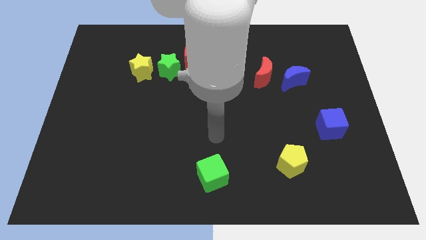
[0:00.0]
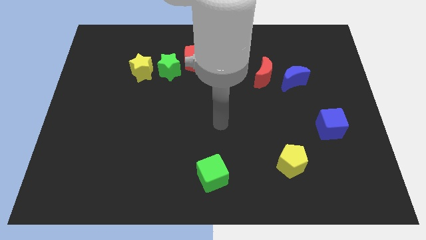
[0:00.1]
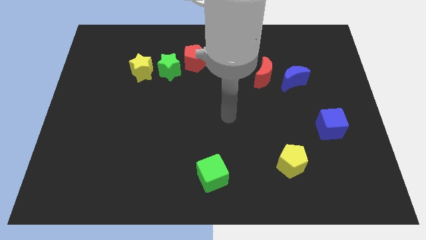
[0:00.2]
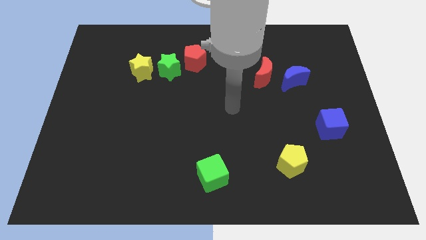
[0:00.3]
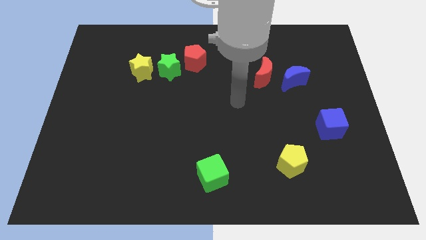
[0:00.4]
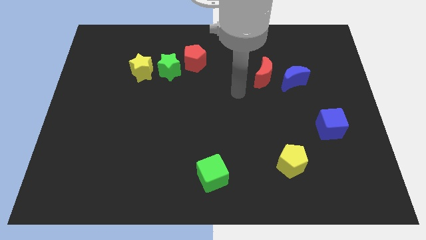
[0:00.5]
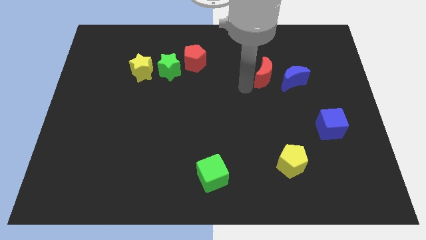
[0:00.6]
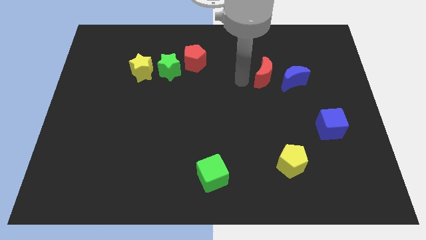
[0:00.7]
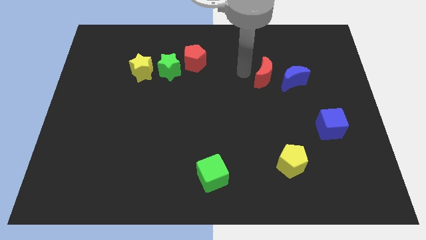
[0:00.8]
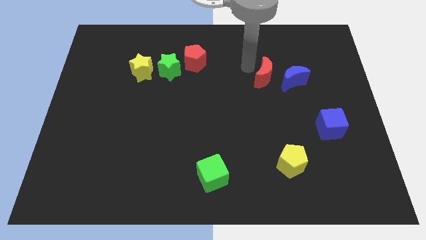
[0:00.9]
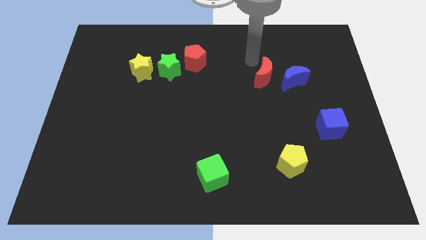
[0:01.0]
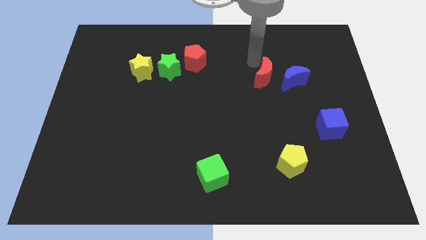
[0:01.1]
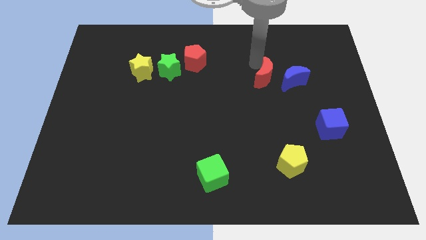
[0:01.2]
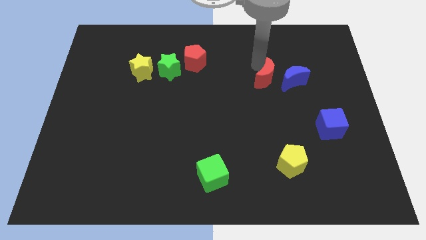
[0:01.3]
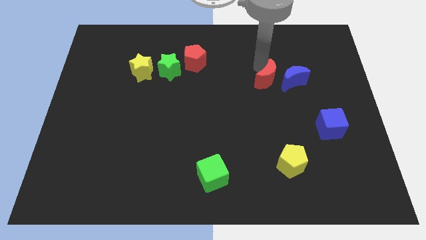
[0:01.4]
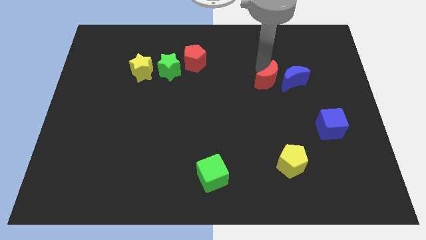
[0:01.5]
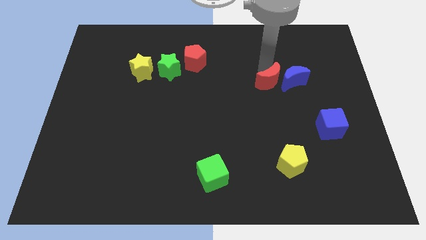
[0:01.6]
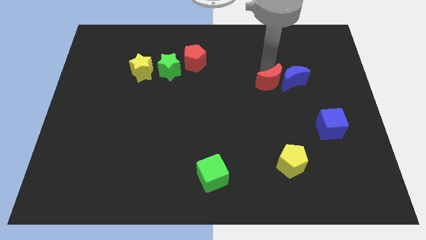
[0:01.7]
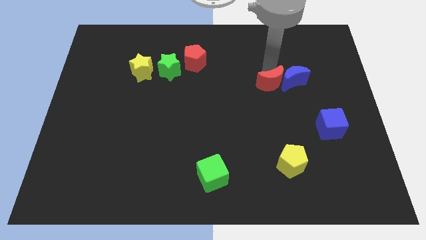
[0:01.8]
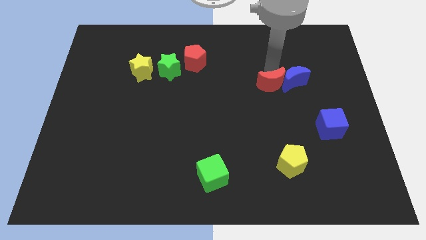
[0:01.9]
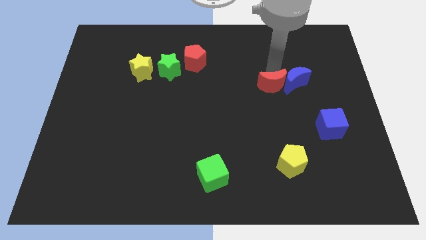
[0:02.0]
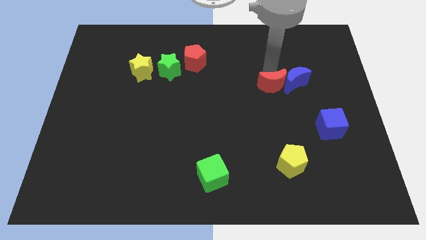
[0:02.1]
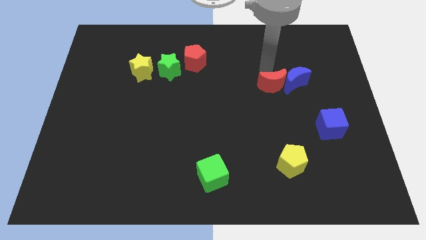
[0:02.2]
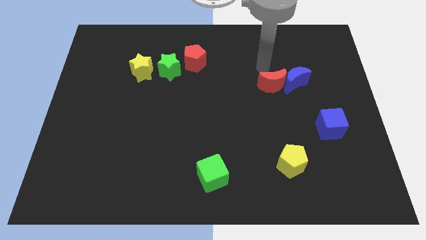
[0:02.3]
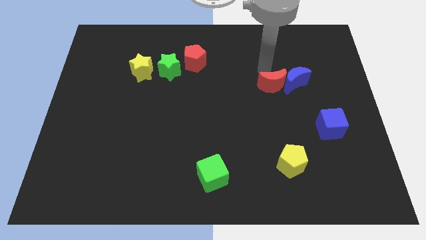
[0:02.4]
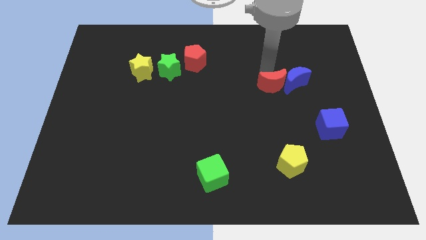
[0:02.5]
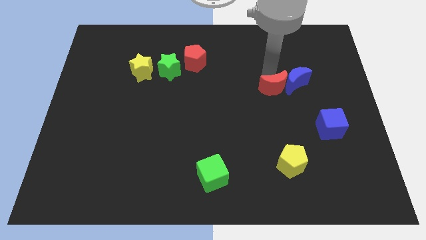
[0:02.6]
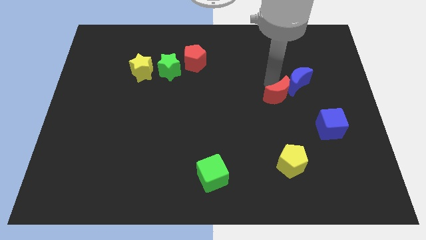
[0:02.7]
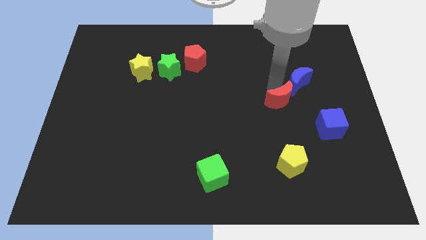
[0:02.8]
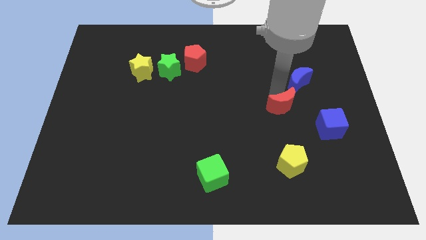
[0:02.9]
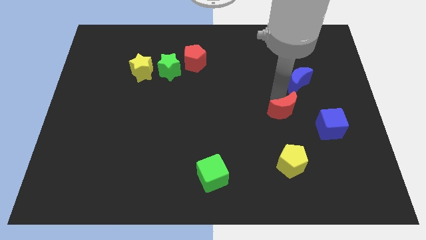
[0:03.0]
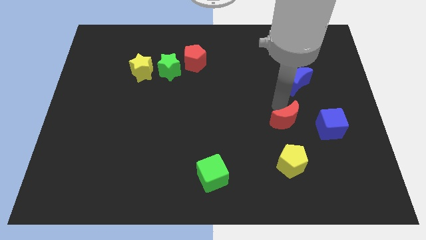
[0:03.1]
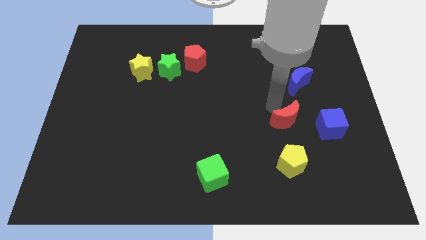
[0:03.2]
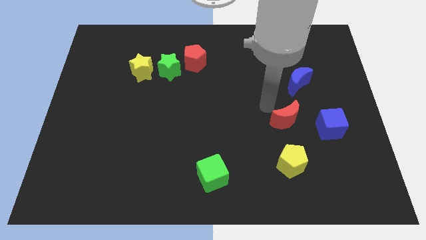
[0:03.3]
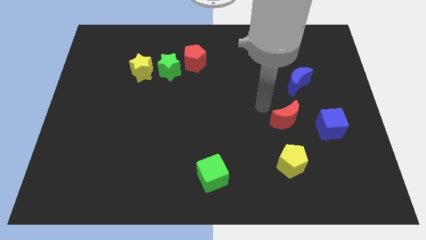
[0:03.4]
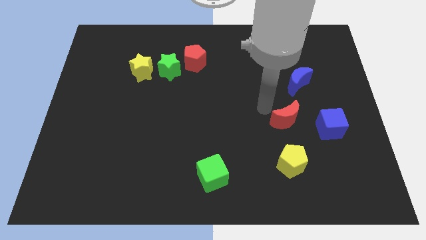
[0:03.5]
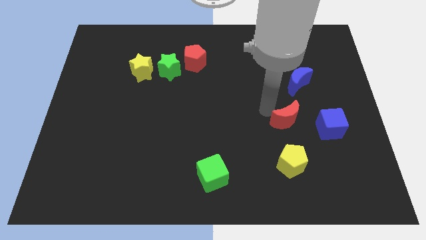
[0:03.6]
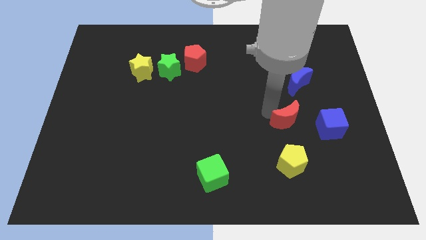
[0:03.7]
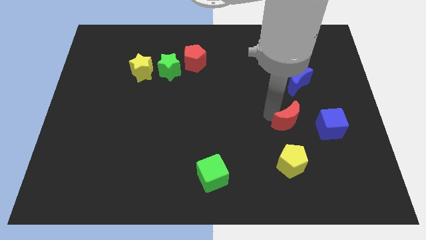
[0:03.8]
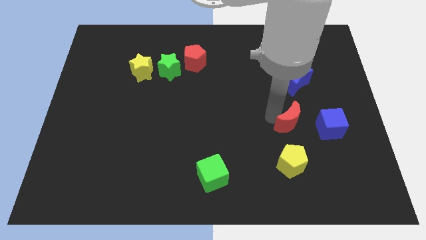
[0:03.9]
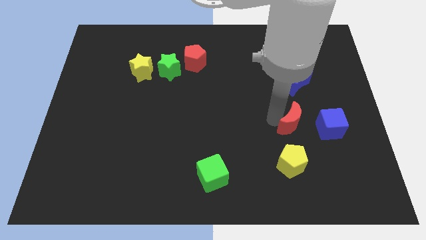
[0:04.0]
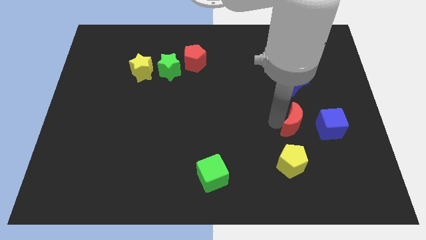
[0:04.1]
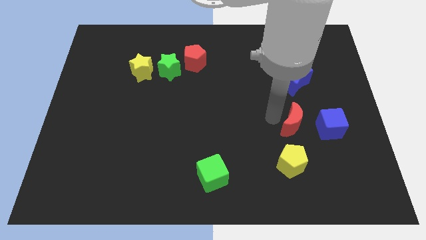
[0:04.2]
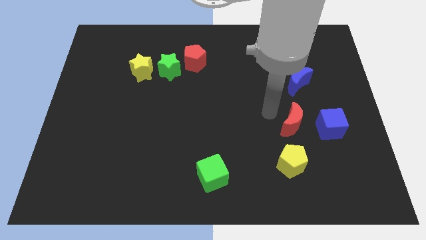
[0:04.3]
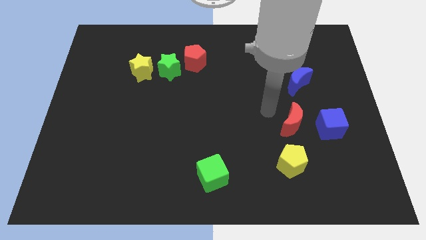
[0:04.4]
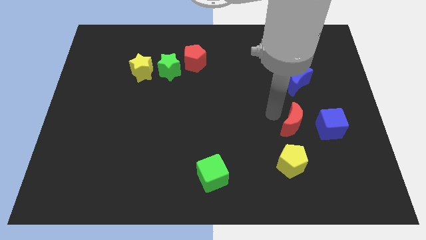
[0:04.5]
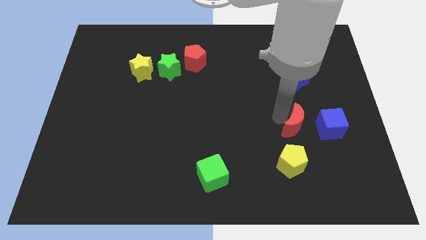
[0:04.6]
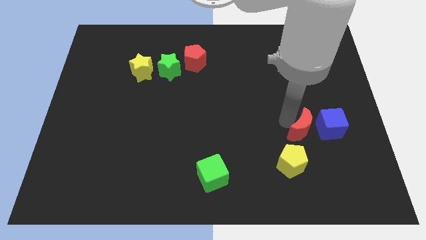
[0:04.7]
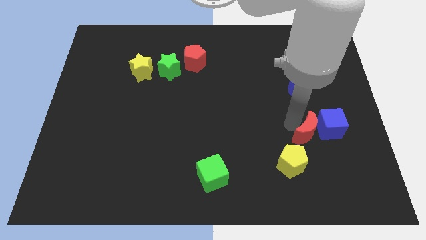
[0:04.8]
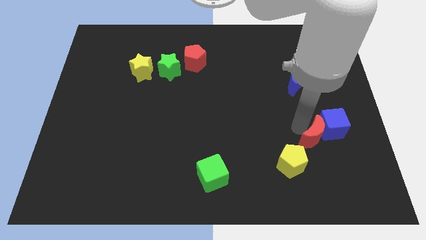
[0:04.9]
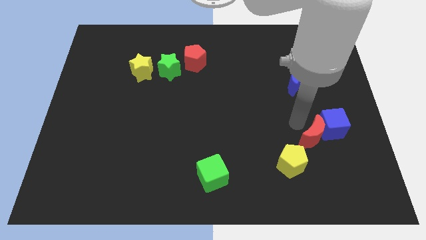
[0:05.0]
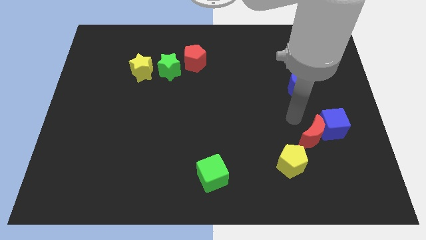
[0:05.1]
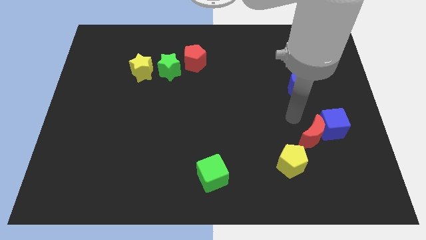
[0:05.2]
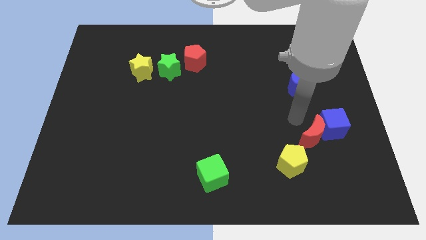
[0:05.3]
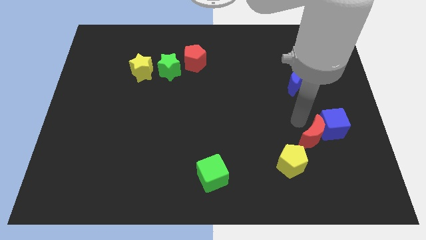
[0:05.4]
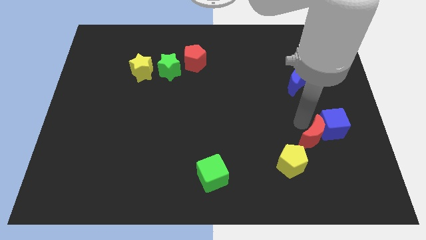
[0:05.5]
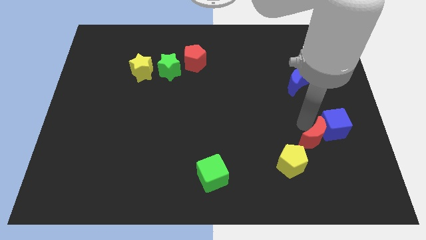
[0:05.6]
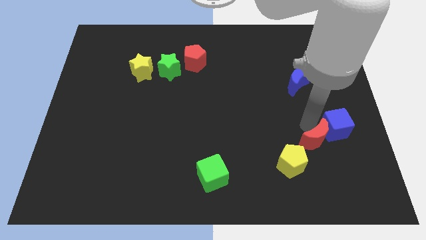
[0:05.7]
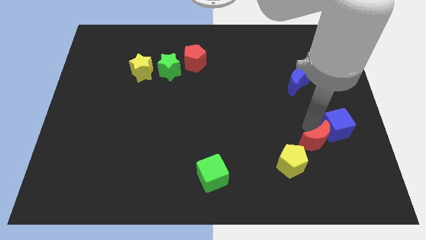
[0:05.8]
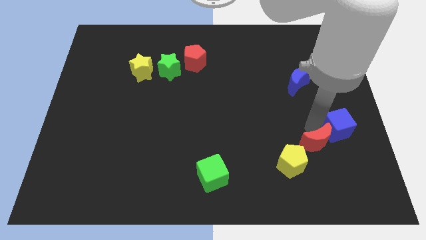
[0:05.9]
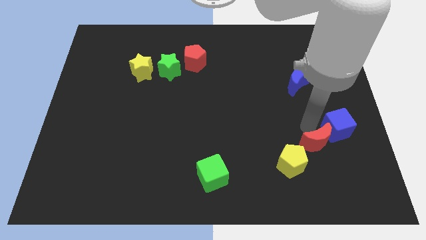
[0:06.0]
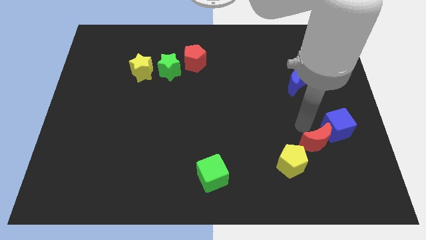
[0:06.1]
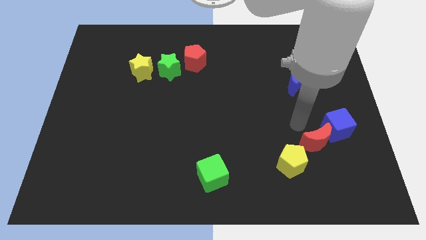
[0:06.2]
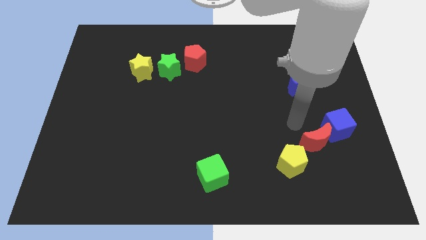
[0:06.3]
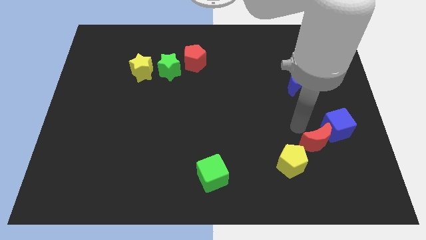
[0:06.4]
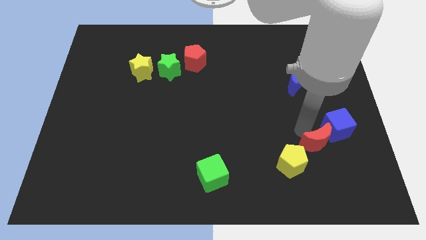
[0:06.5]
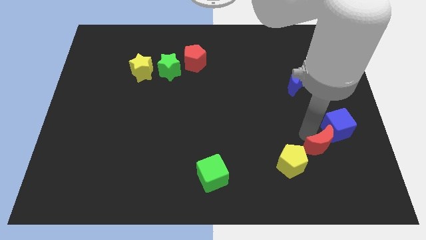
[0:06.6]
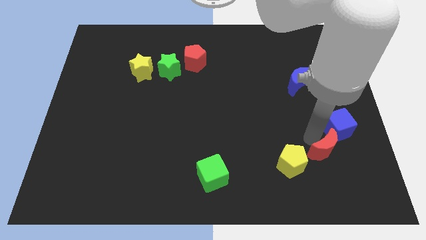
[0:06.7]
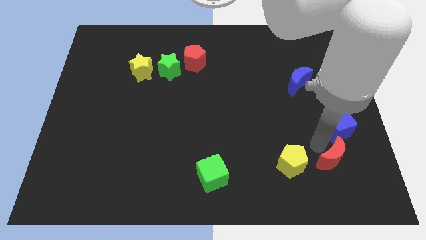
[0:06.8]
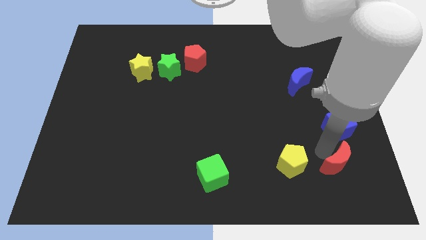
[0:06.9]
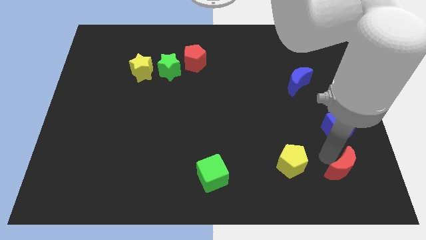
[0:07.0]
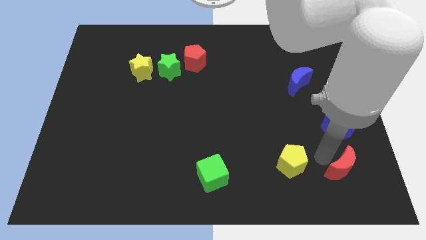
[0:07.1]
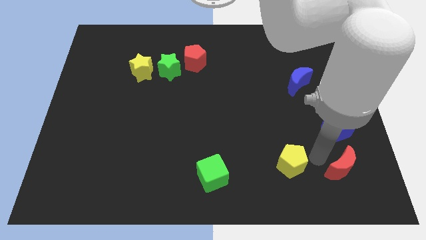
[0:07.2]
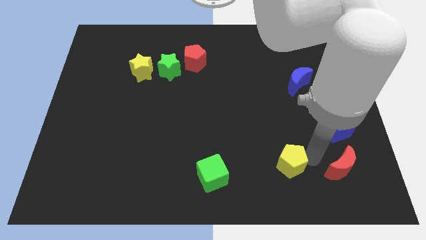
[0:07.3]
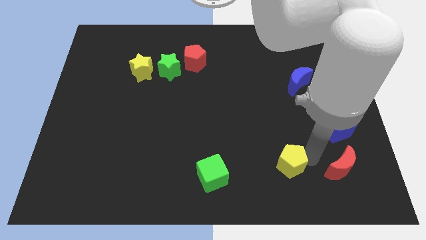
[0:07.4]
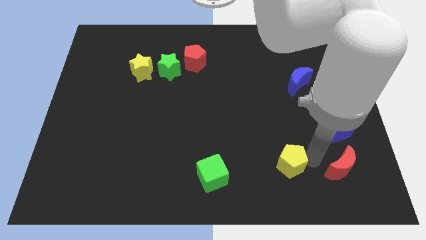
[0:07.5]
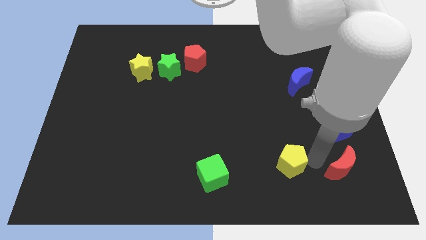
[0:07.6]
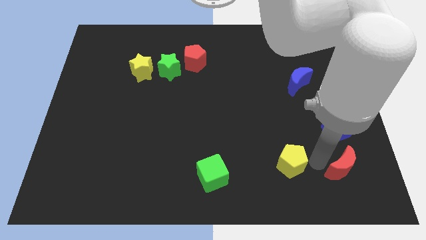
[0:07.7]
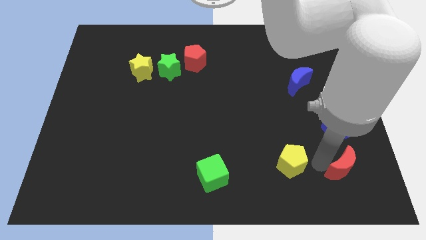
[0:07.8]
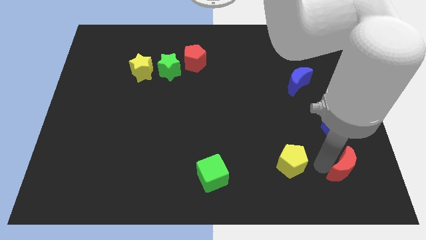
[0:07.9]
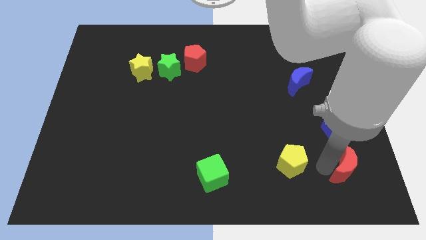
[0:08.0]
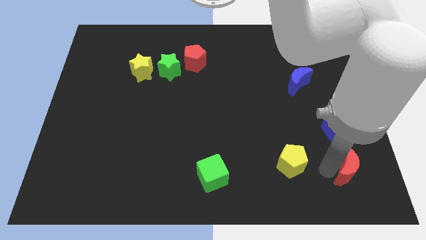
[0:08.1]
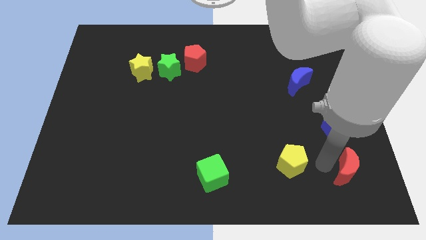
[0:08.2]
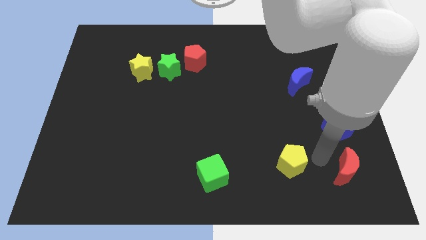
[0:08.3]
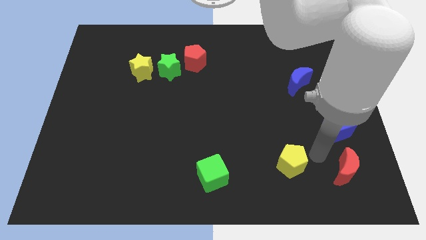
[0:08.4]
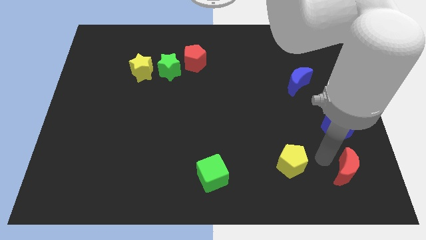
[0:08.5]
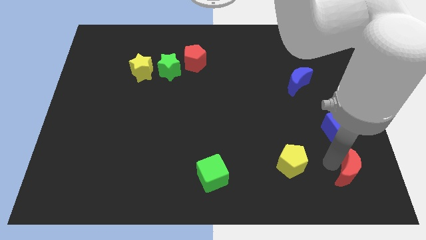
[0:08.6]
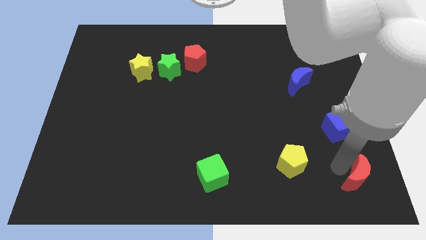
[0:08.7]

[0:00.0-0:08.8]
slide the red moon to the bottom right corner
